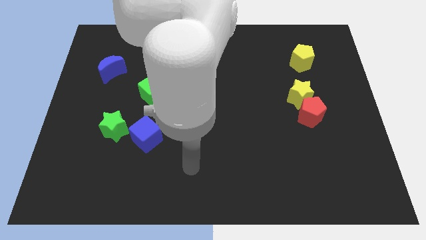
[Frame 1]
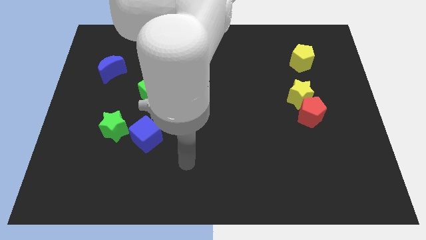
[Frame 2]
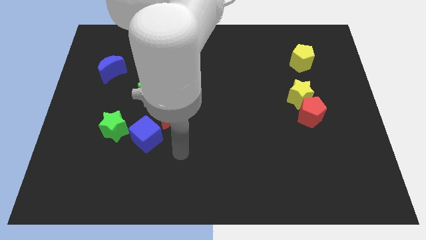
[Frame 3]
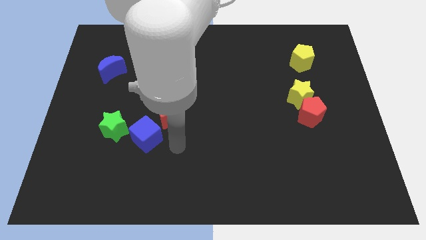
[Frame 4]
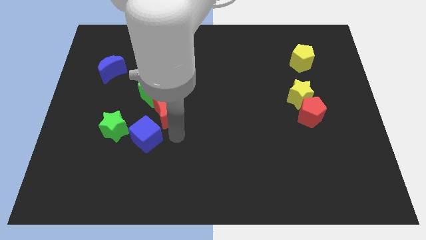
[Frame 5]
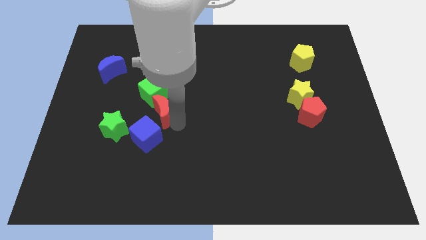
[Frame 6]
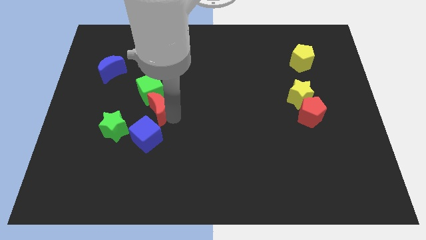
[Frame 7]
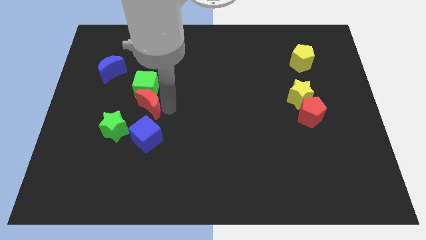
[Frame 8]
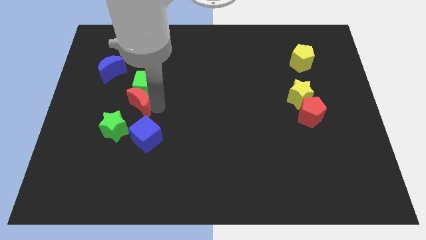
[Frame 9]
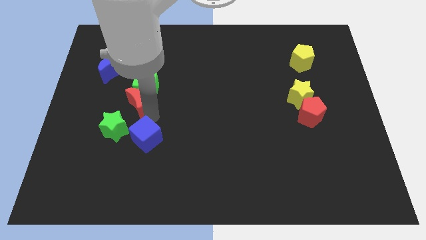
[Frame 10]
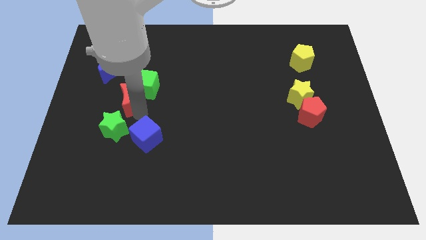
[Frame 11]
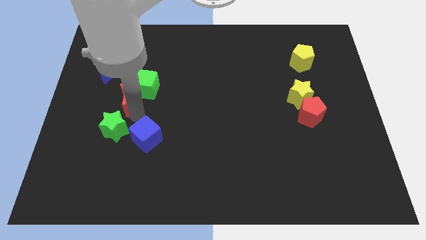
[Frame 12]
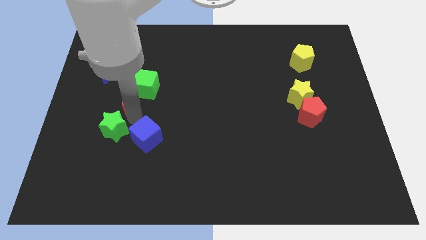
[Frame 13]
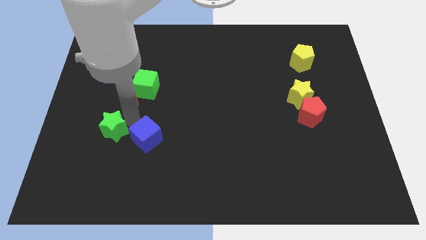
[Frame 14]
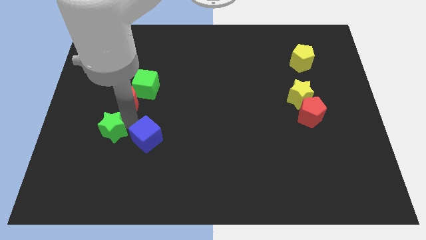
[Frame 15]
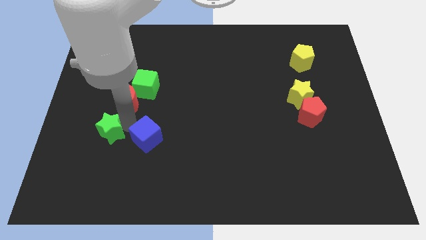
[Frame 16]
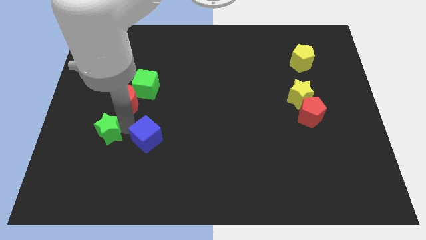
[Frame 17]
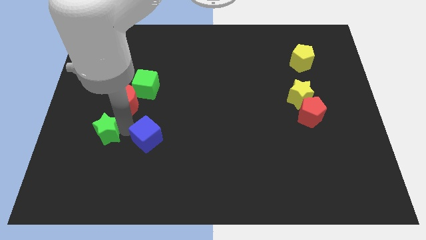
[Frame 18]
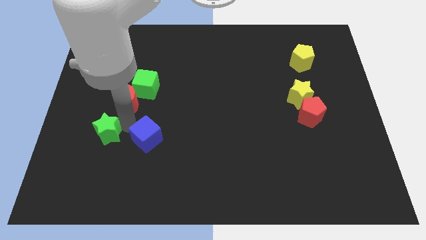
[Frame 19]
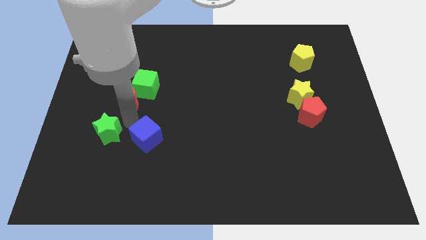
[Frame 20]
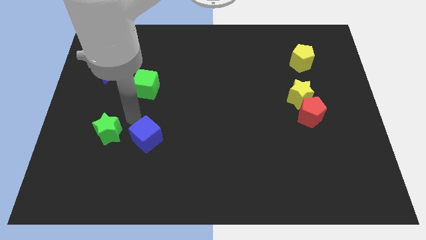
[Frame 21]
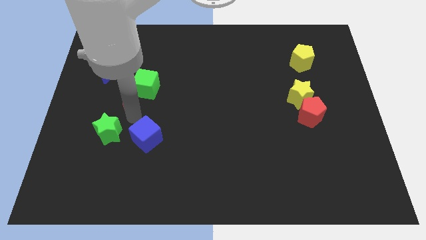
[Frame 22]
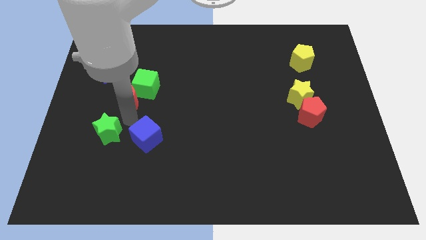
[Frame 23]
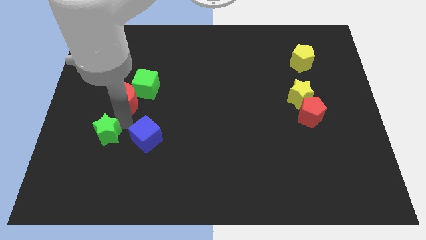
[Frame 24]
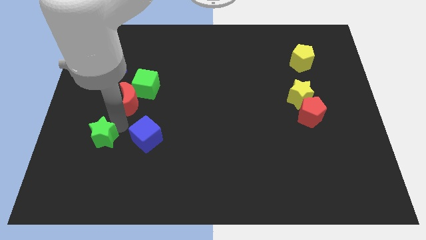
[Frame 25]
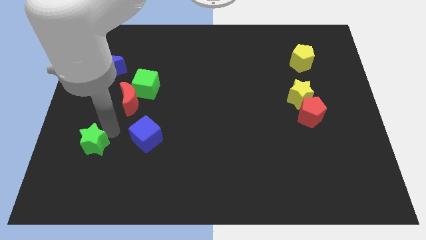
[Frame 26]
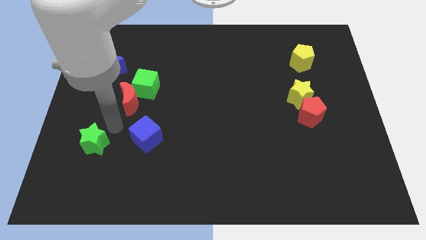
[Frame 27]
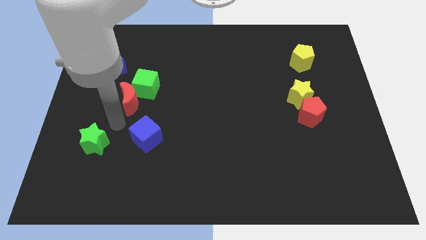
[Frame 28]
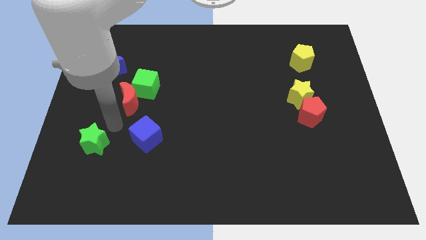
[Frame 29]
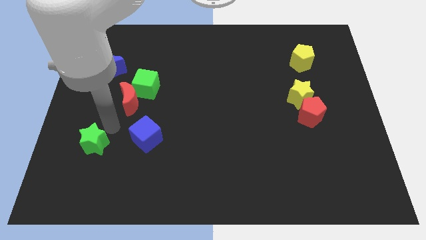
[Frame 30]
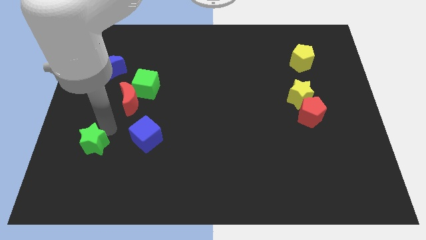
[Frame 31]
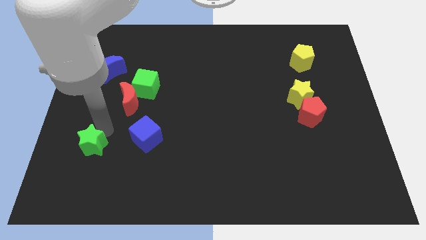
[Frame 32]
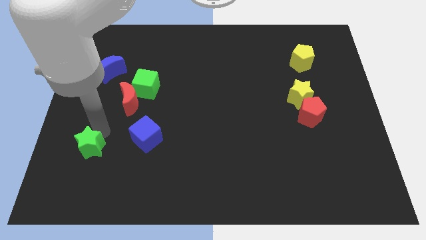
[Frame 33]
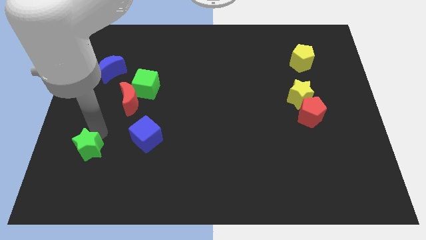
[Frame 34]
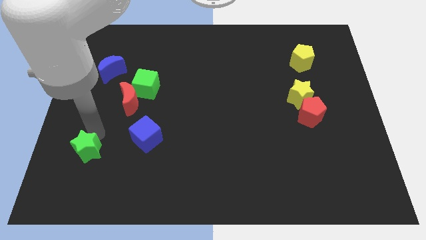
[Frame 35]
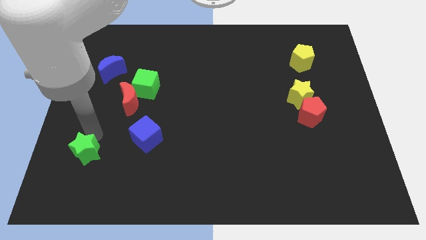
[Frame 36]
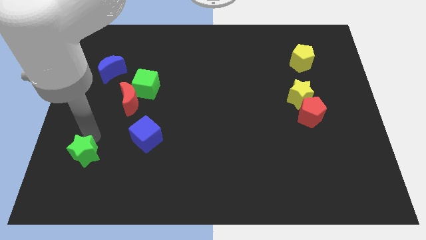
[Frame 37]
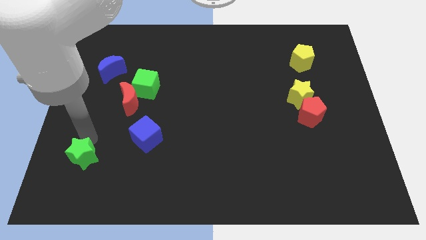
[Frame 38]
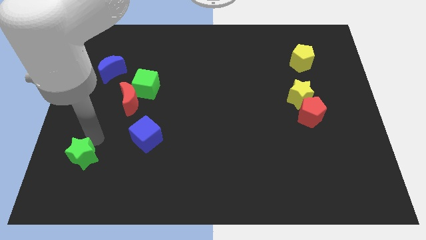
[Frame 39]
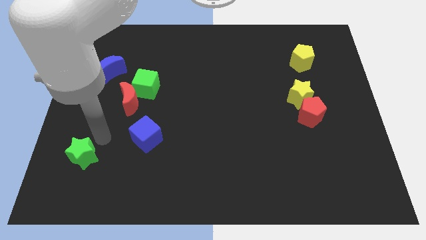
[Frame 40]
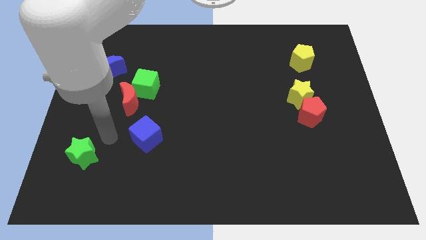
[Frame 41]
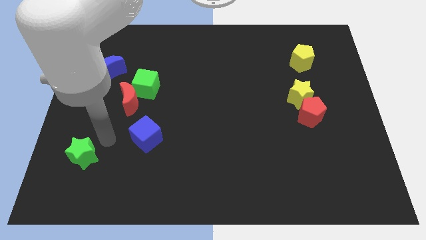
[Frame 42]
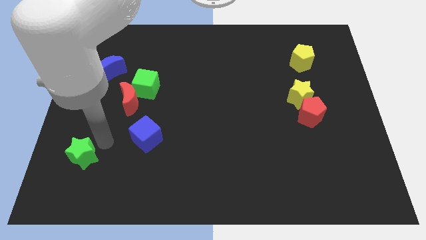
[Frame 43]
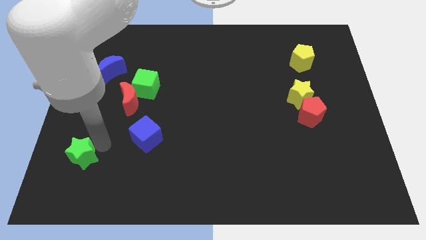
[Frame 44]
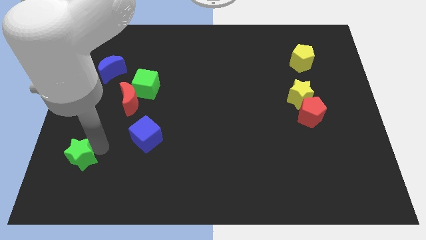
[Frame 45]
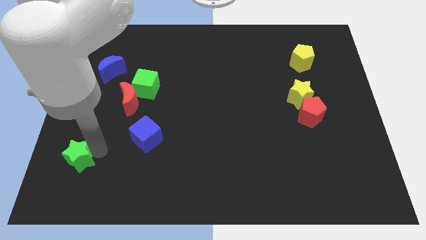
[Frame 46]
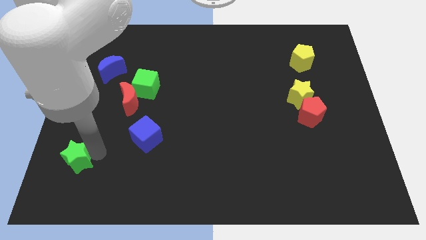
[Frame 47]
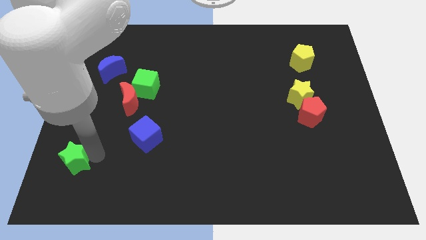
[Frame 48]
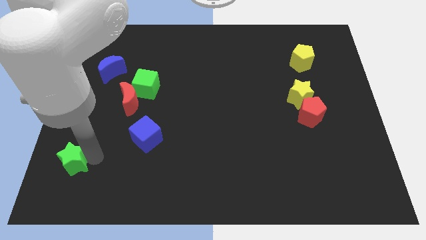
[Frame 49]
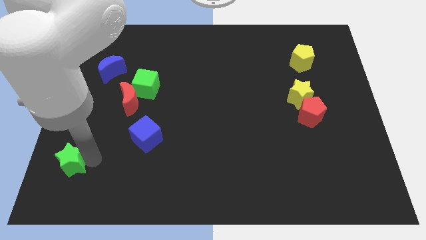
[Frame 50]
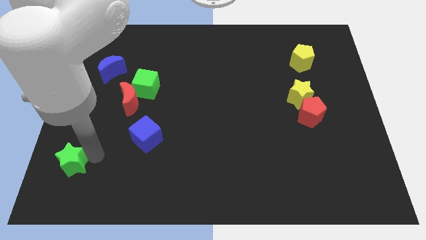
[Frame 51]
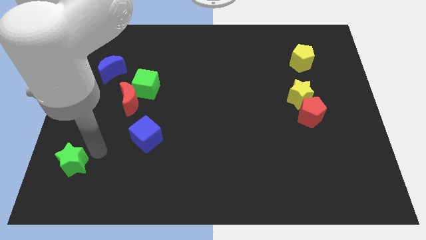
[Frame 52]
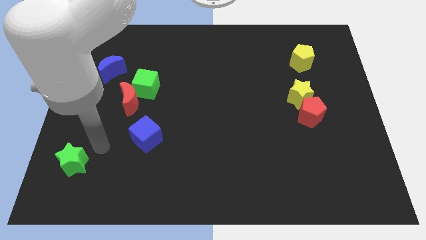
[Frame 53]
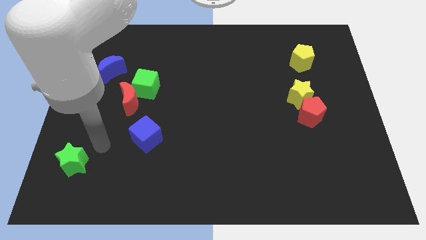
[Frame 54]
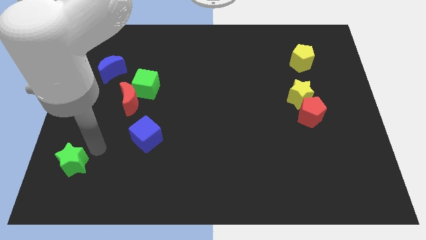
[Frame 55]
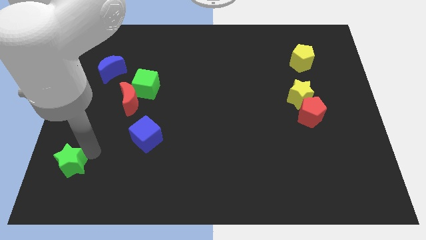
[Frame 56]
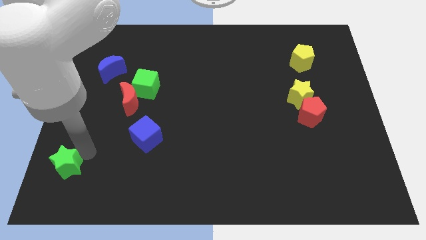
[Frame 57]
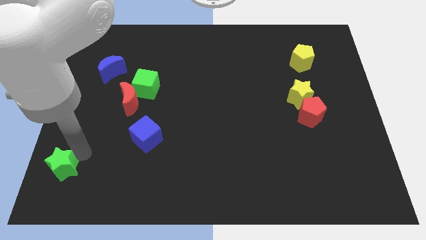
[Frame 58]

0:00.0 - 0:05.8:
slide the green star to the lower left corner
